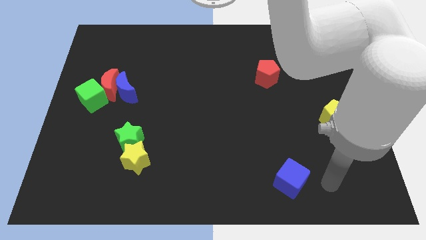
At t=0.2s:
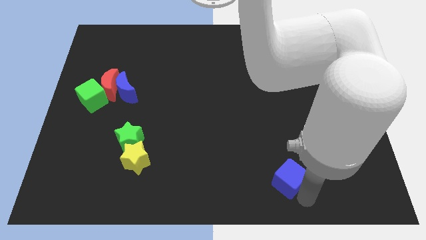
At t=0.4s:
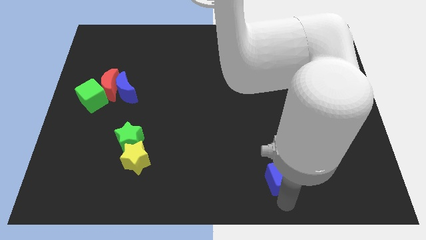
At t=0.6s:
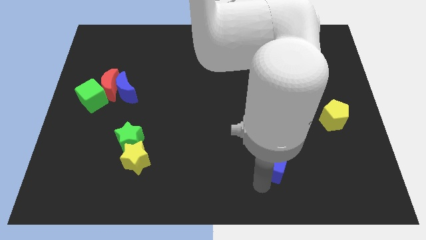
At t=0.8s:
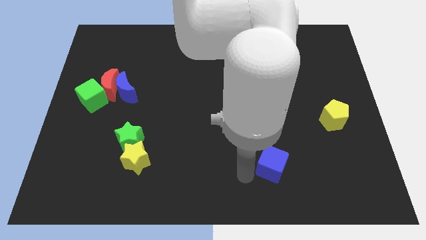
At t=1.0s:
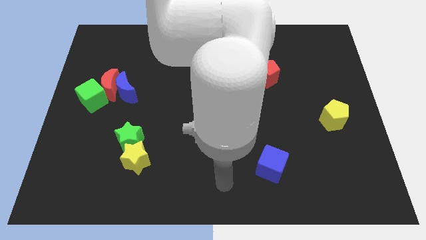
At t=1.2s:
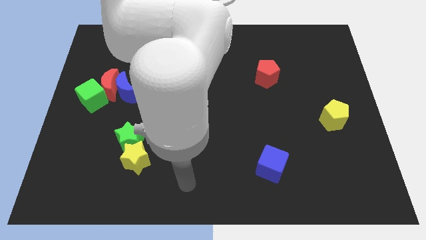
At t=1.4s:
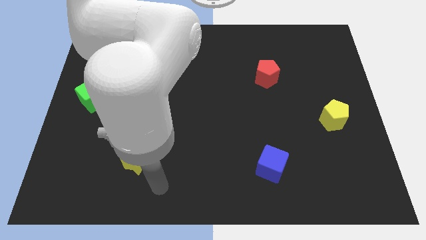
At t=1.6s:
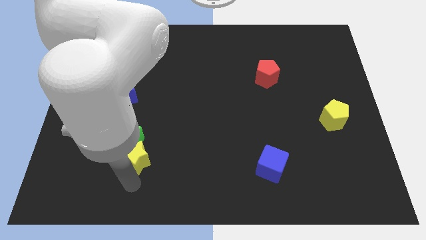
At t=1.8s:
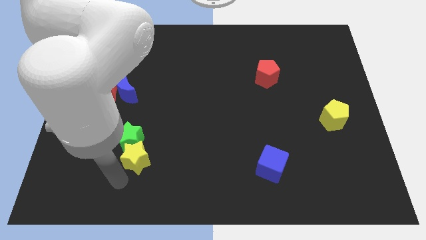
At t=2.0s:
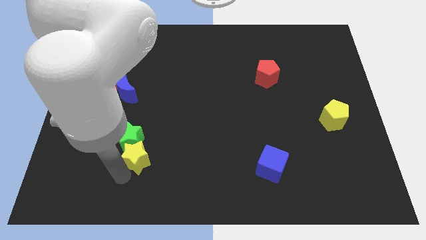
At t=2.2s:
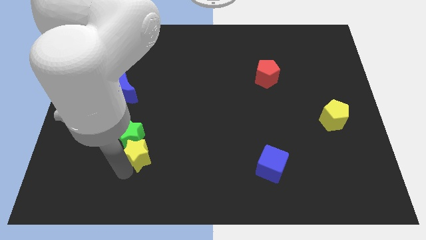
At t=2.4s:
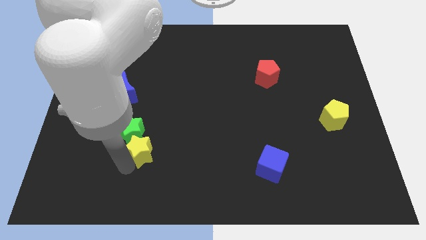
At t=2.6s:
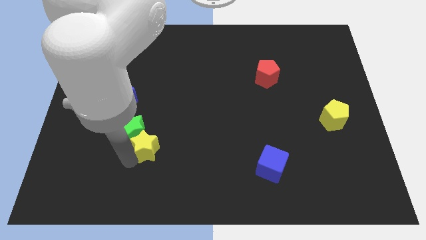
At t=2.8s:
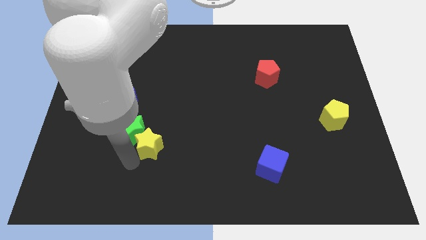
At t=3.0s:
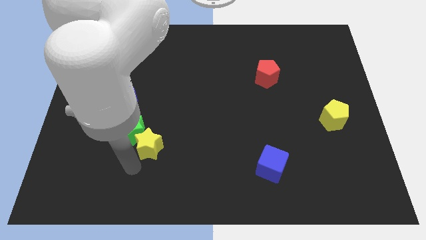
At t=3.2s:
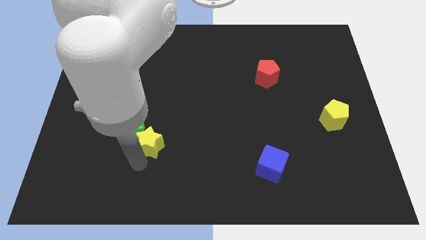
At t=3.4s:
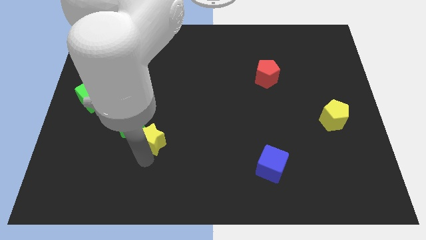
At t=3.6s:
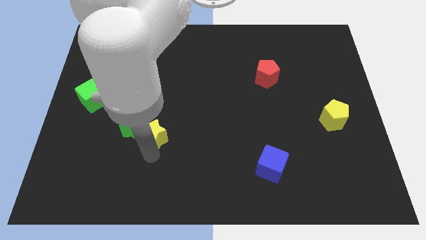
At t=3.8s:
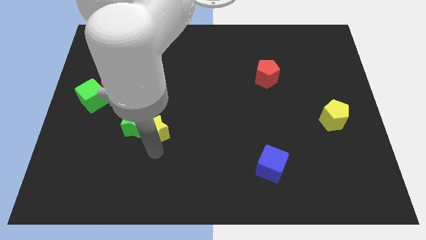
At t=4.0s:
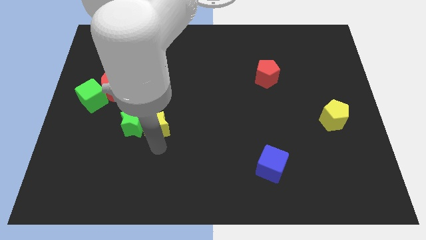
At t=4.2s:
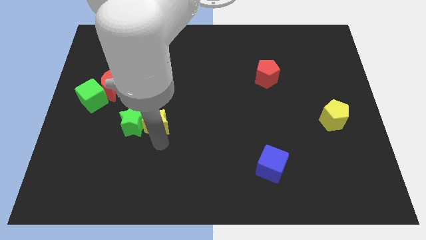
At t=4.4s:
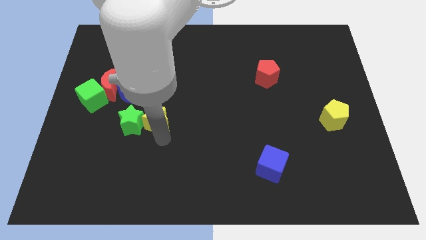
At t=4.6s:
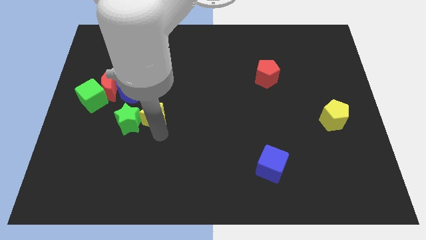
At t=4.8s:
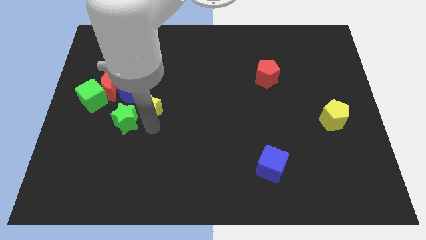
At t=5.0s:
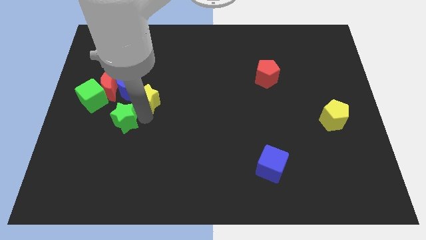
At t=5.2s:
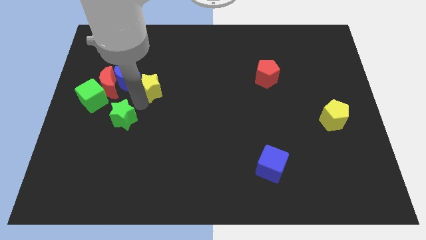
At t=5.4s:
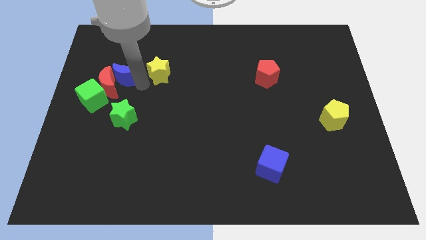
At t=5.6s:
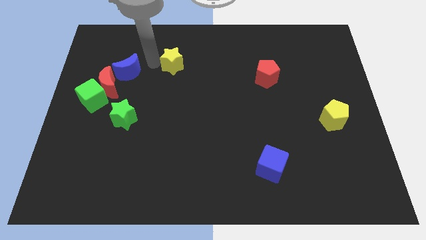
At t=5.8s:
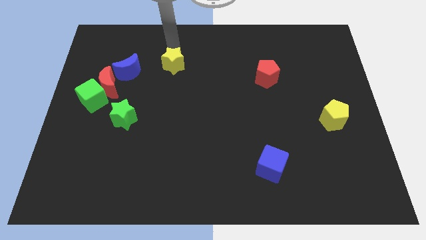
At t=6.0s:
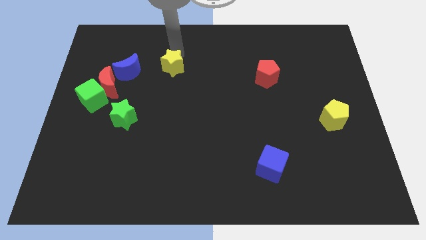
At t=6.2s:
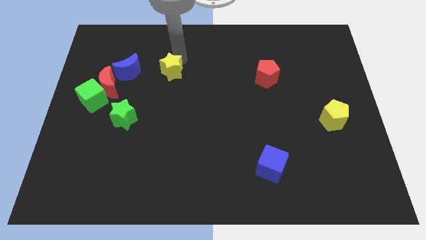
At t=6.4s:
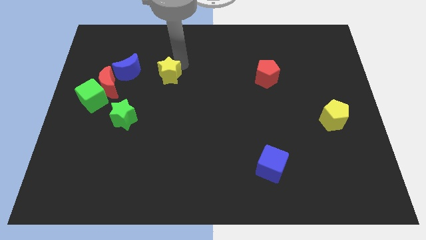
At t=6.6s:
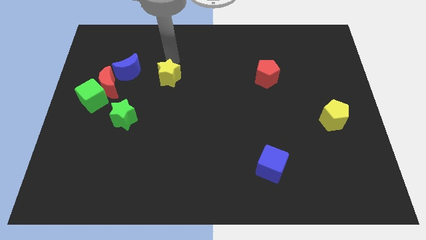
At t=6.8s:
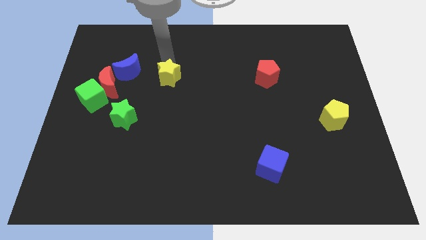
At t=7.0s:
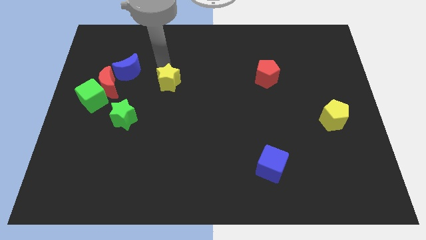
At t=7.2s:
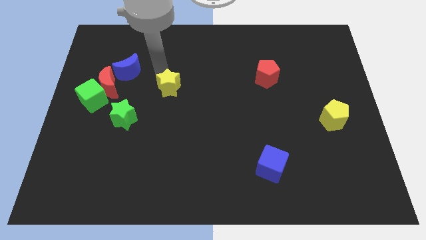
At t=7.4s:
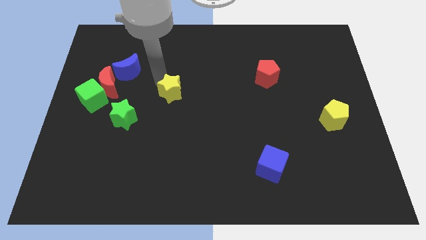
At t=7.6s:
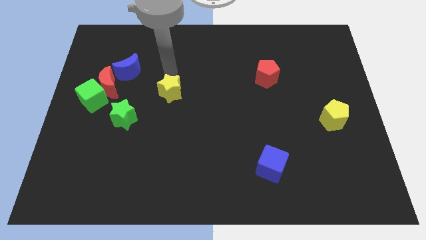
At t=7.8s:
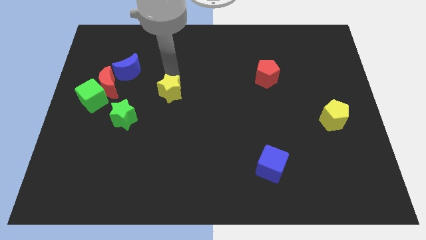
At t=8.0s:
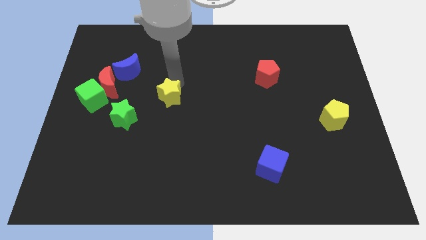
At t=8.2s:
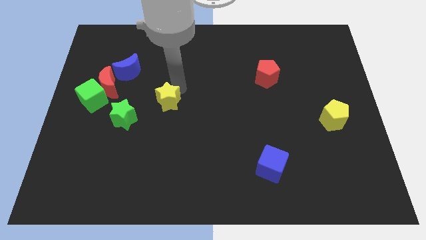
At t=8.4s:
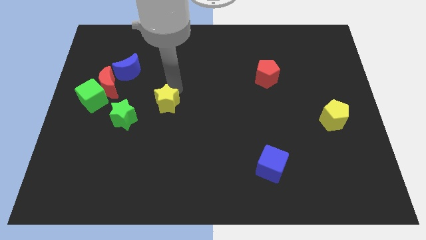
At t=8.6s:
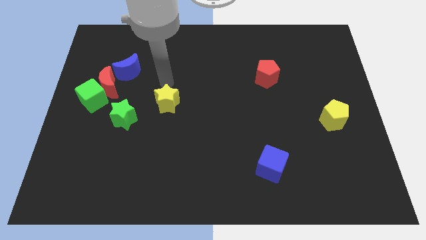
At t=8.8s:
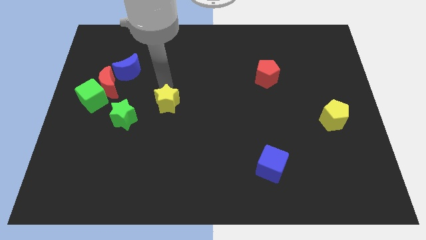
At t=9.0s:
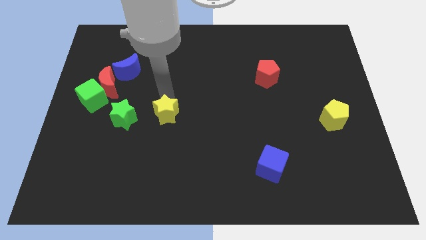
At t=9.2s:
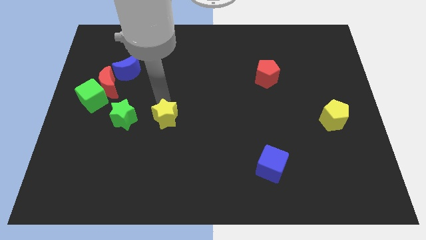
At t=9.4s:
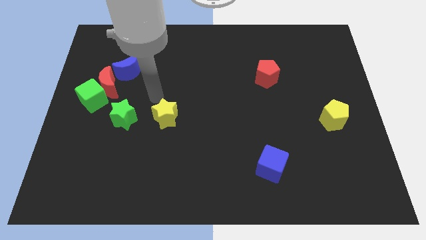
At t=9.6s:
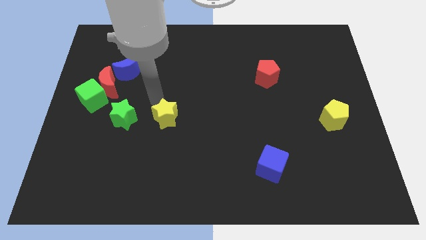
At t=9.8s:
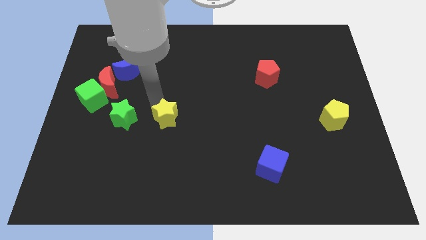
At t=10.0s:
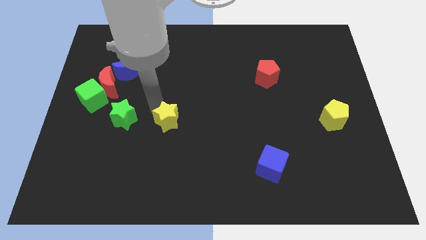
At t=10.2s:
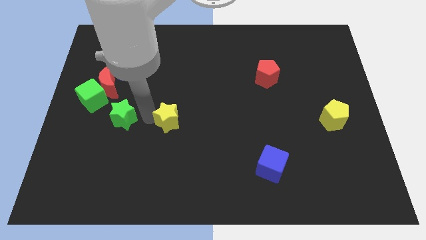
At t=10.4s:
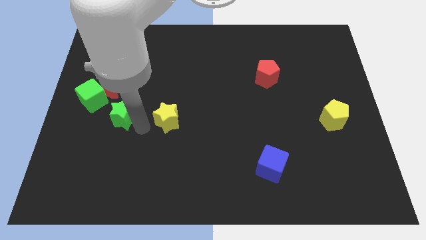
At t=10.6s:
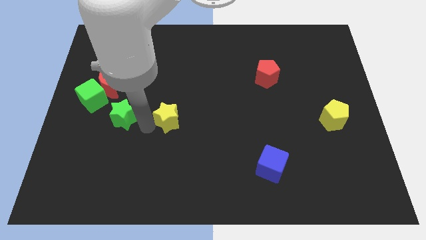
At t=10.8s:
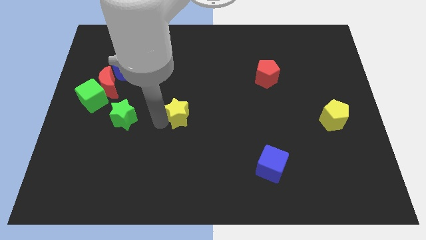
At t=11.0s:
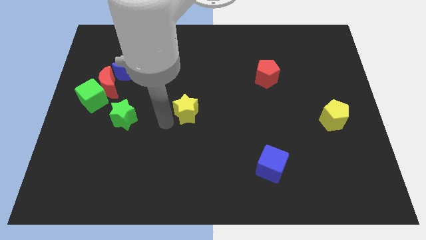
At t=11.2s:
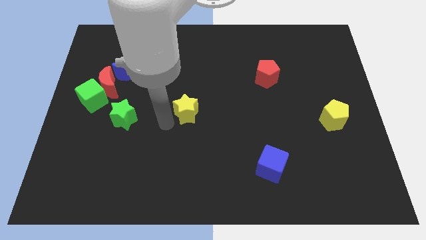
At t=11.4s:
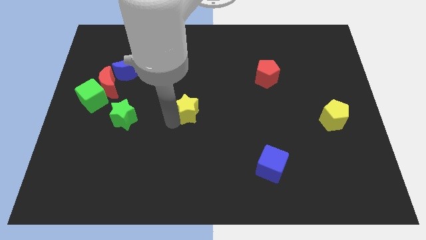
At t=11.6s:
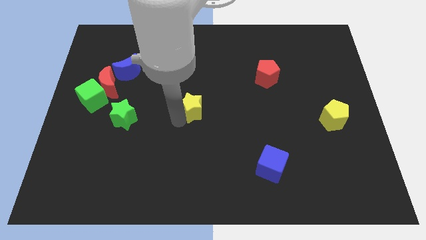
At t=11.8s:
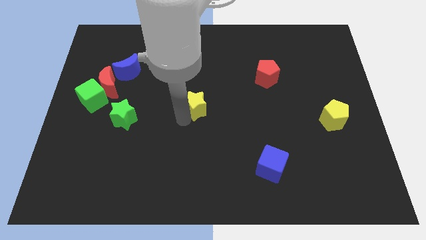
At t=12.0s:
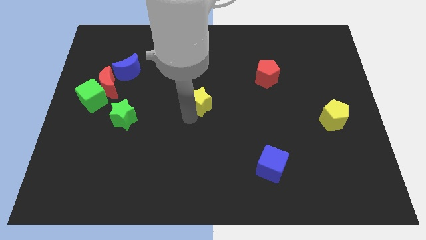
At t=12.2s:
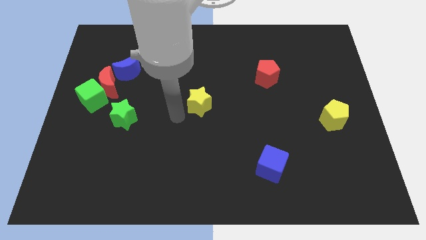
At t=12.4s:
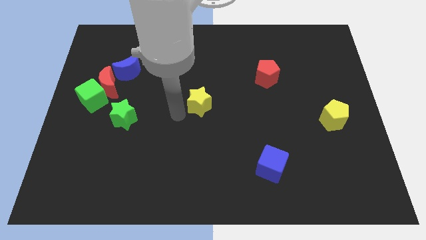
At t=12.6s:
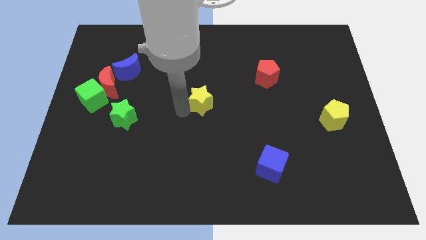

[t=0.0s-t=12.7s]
push the yellow star upwards and right

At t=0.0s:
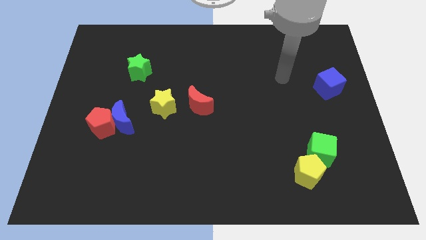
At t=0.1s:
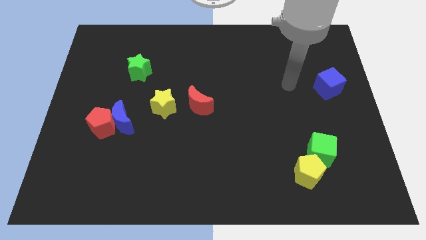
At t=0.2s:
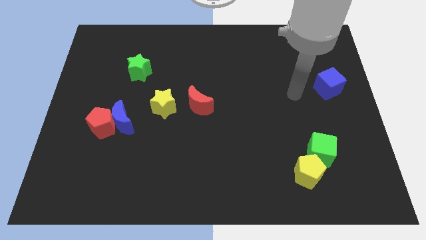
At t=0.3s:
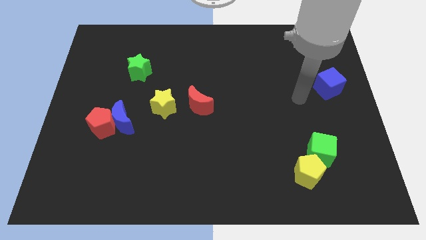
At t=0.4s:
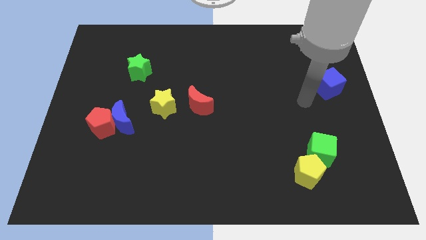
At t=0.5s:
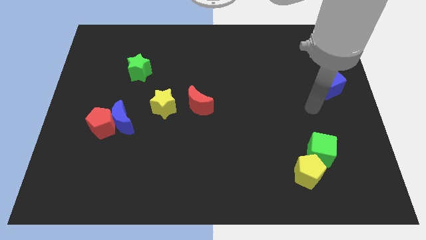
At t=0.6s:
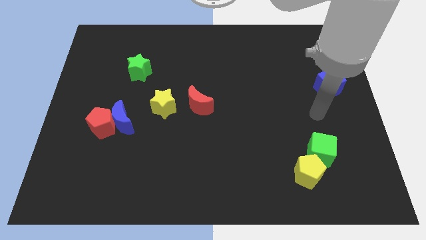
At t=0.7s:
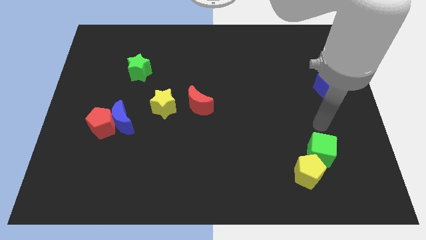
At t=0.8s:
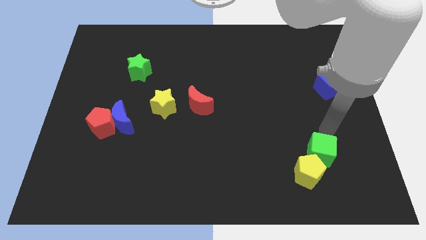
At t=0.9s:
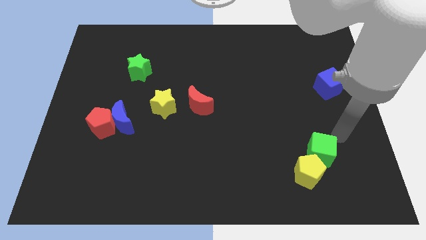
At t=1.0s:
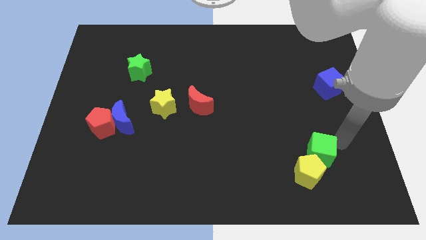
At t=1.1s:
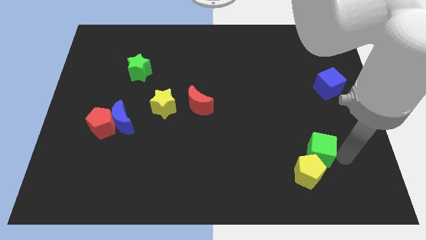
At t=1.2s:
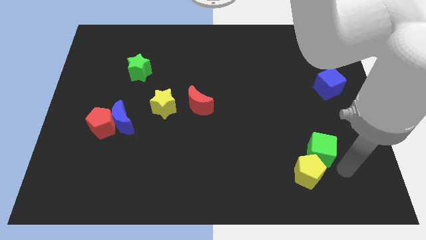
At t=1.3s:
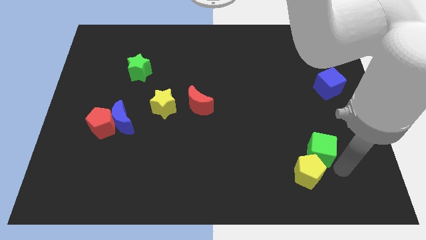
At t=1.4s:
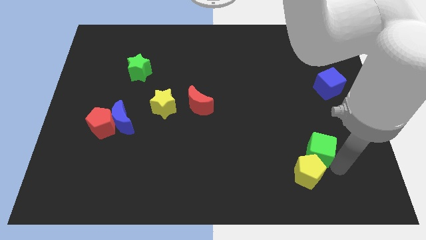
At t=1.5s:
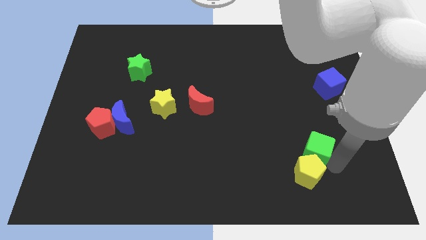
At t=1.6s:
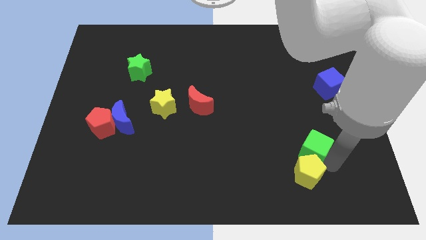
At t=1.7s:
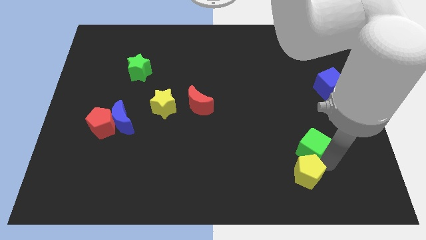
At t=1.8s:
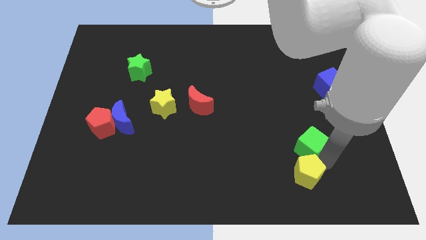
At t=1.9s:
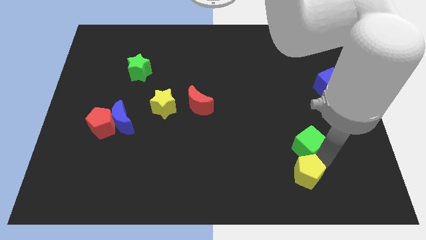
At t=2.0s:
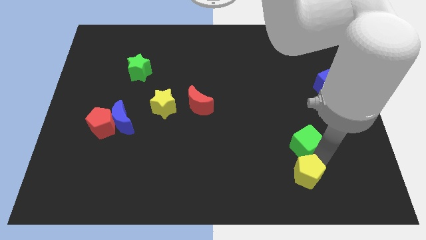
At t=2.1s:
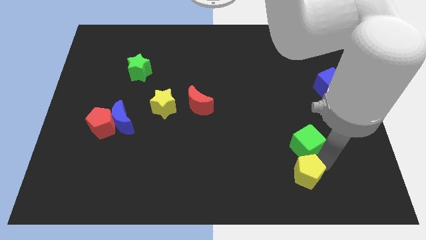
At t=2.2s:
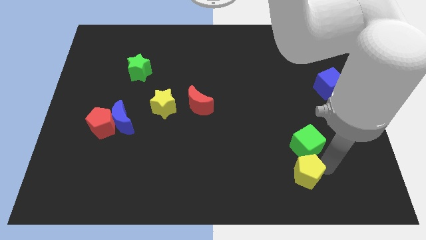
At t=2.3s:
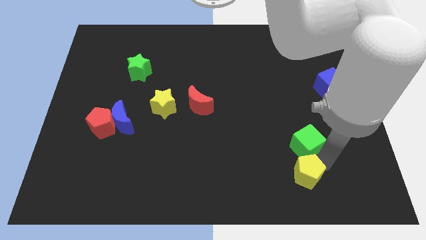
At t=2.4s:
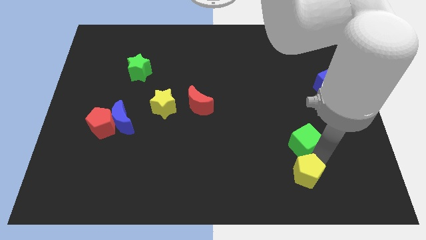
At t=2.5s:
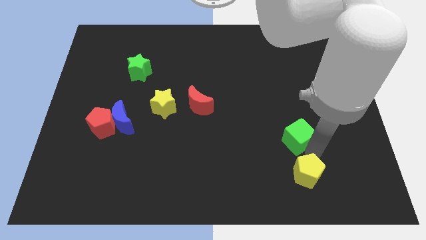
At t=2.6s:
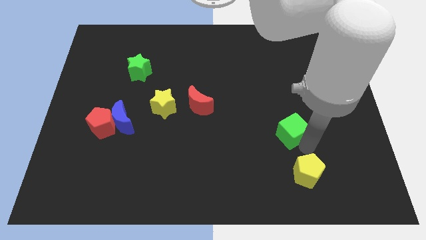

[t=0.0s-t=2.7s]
push the green cube a little bit upwards and left diagonally
